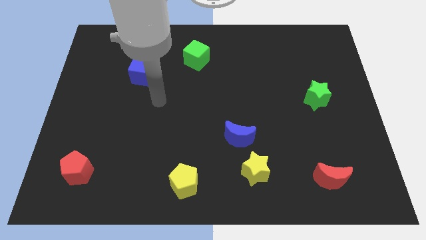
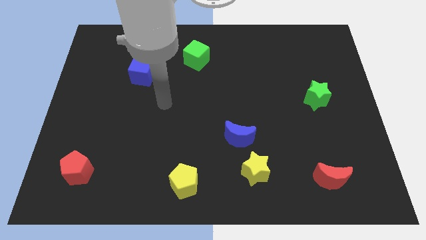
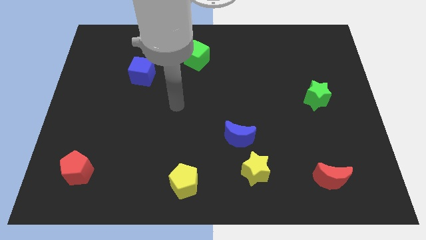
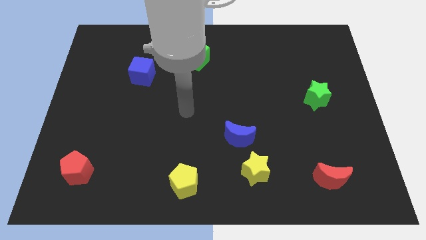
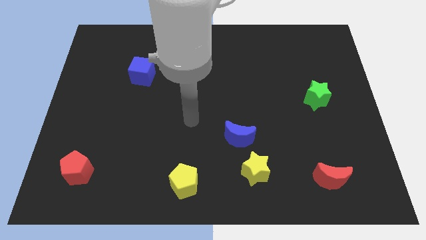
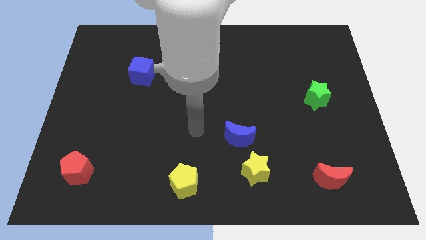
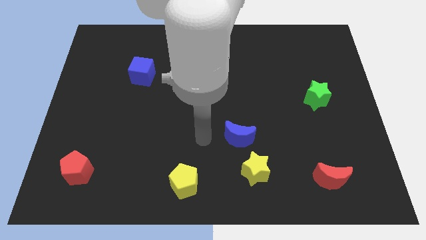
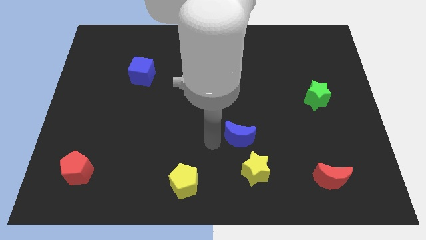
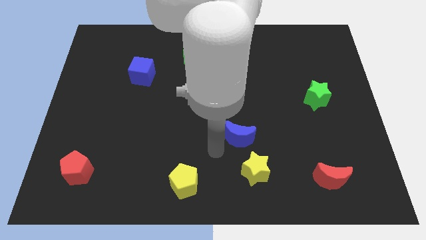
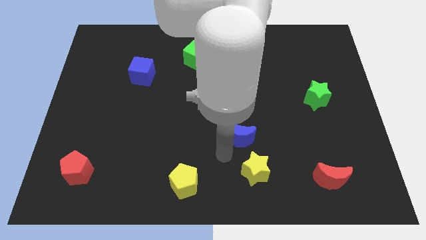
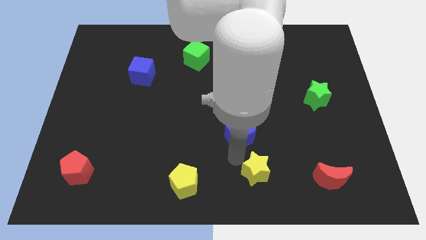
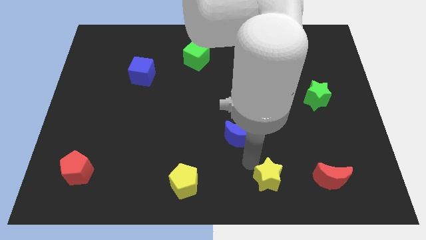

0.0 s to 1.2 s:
pull the blue moon apart from the yellow star

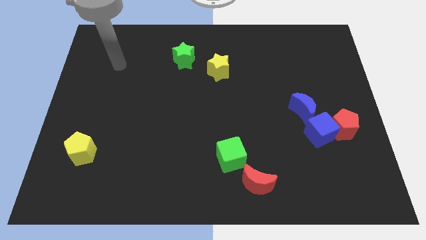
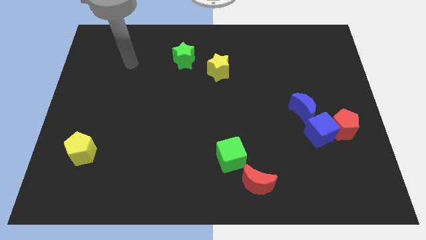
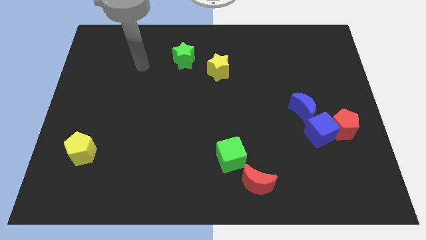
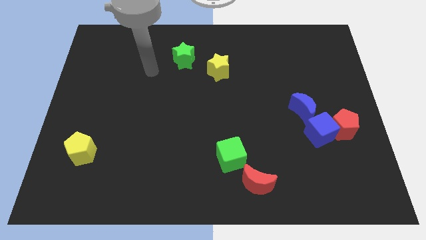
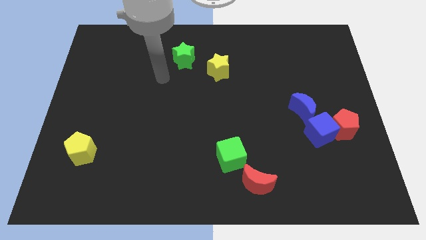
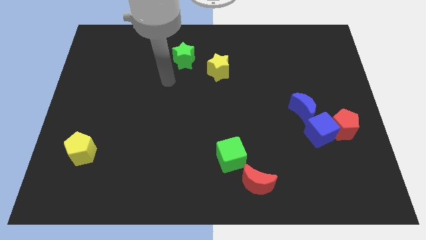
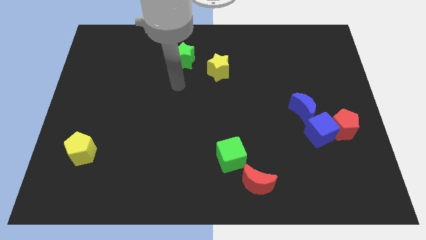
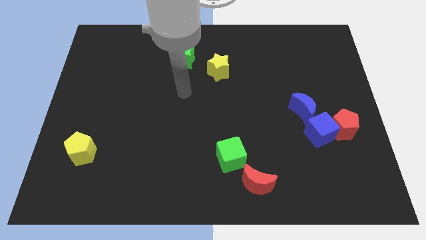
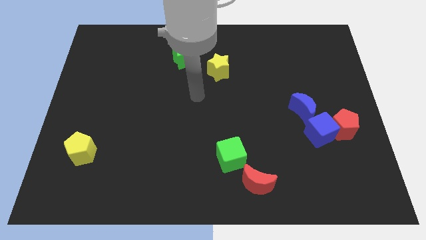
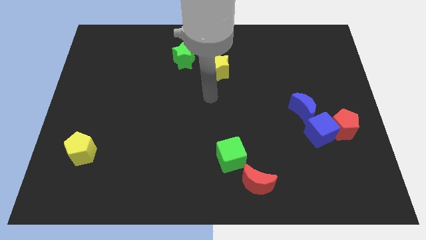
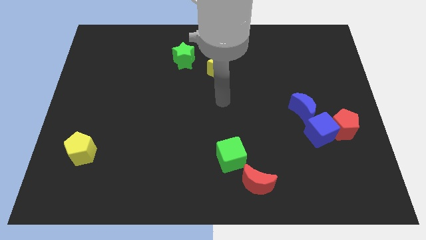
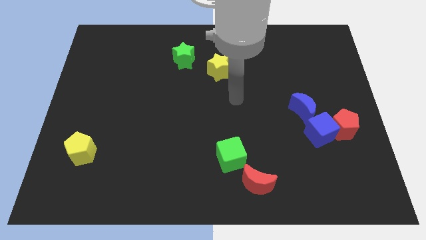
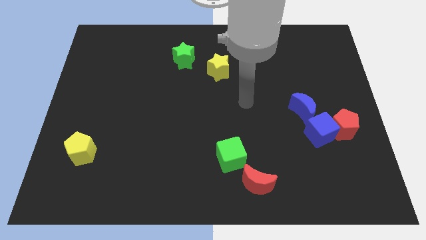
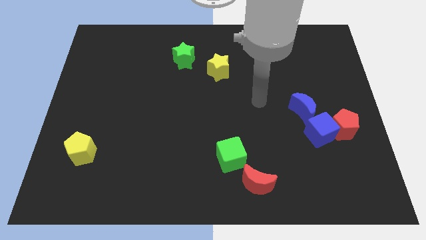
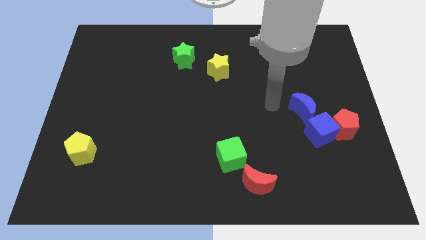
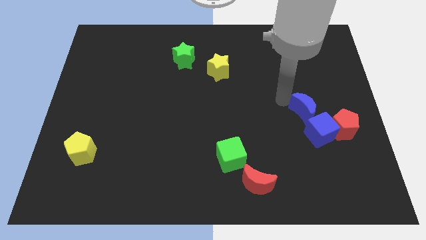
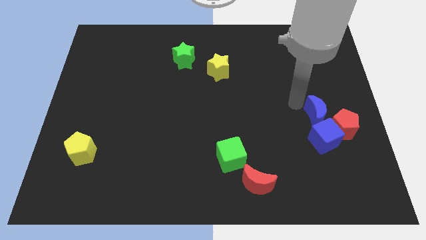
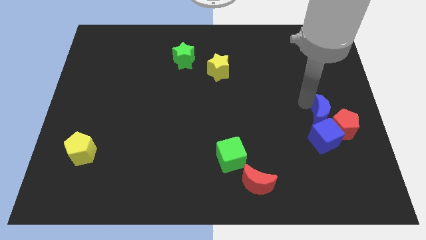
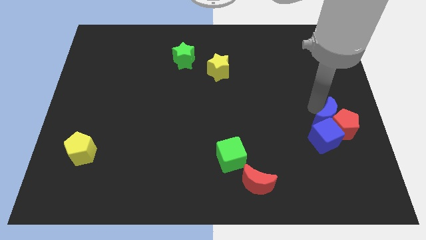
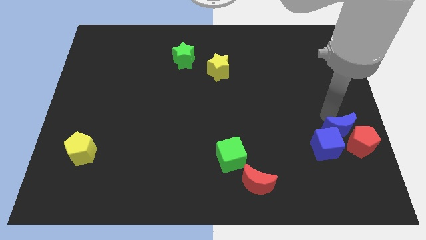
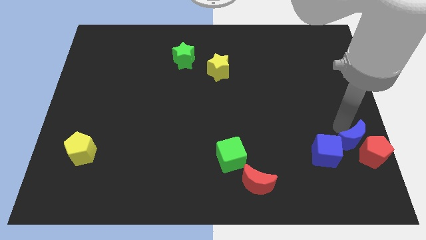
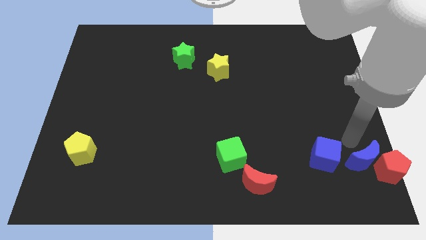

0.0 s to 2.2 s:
separate the blue cube from the red pentagon and blue moon

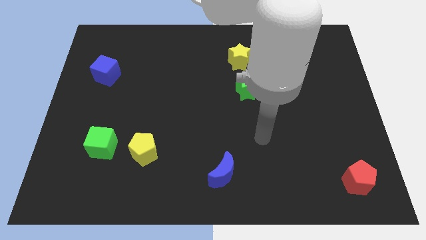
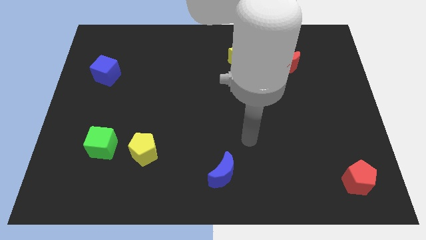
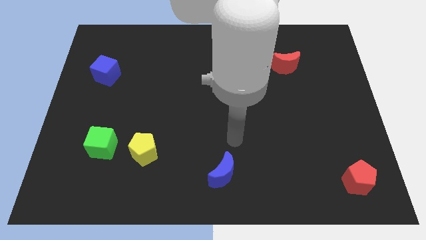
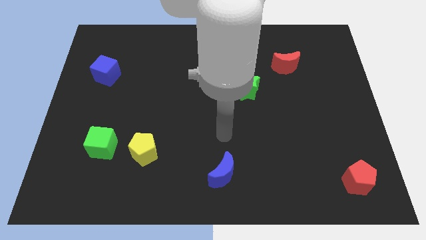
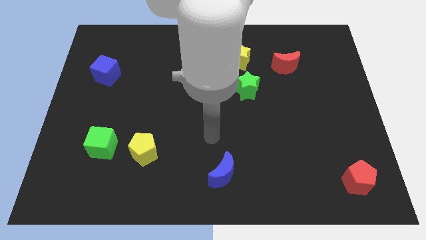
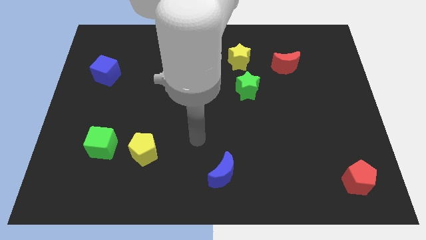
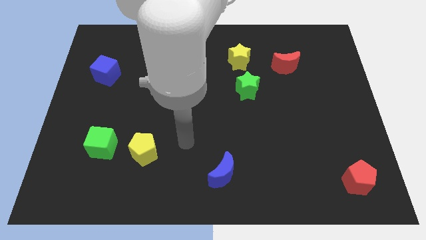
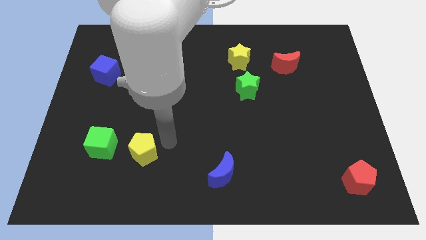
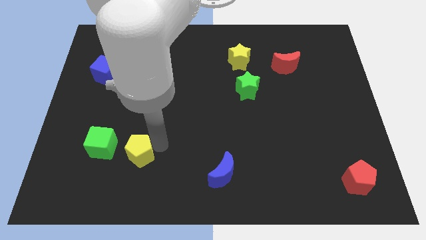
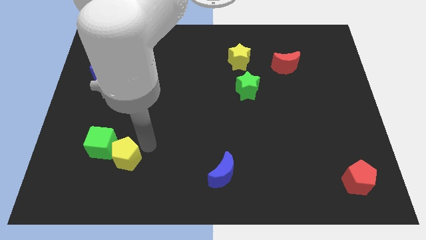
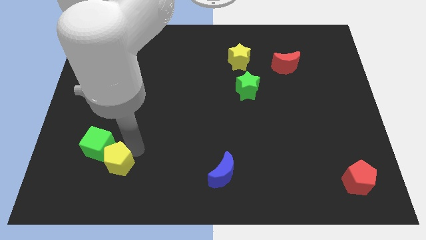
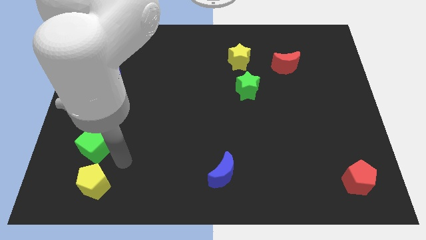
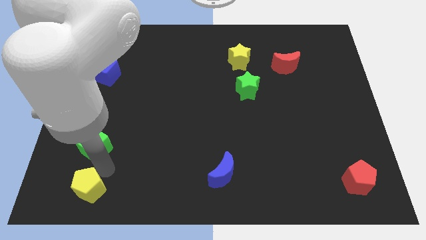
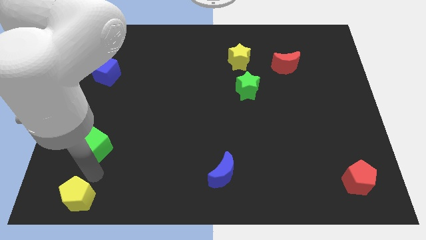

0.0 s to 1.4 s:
separate the green cube from the yellow pentagon

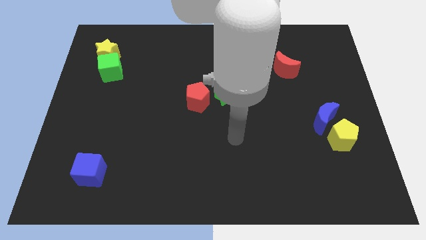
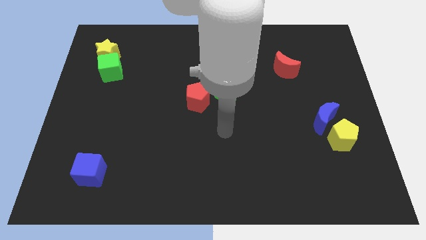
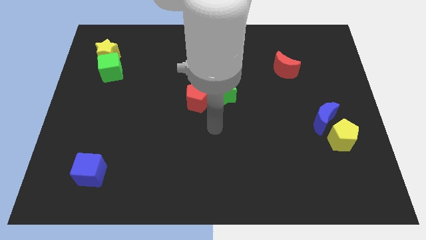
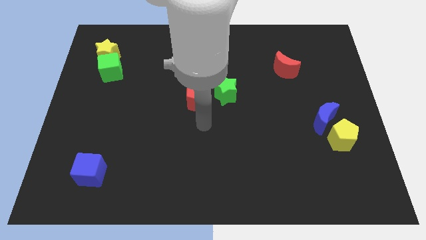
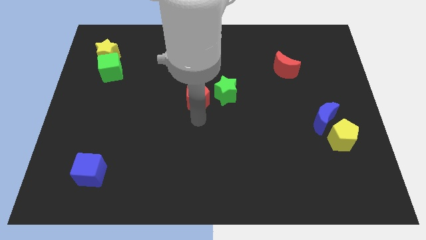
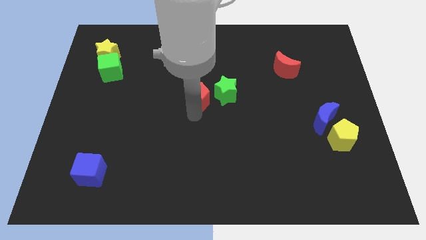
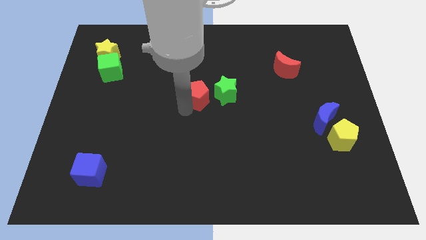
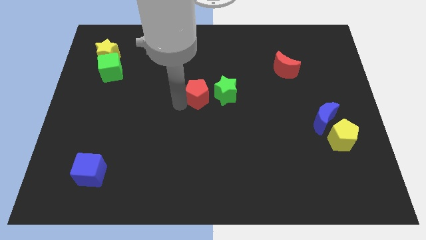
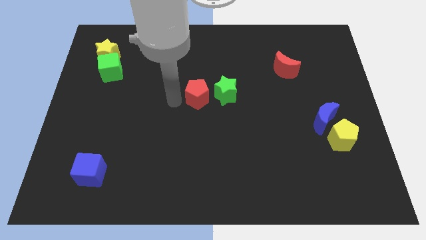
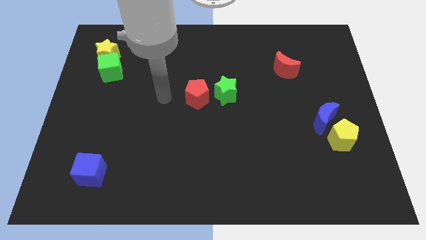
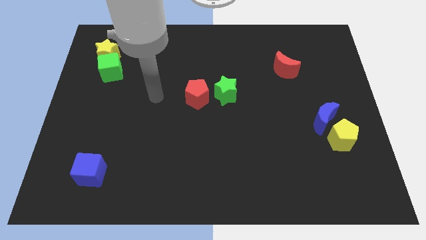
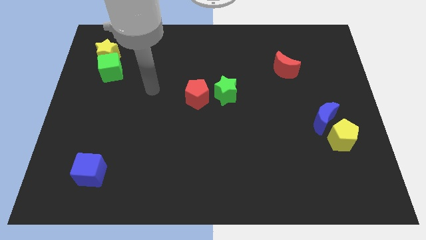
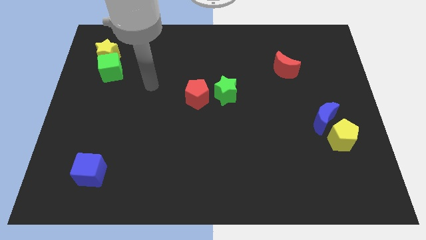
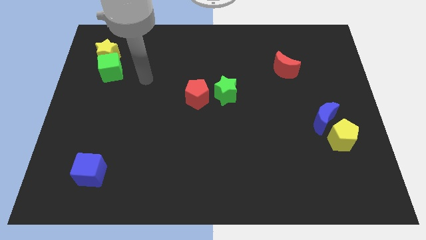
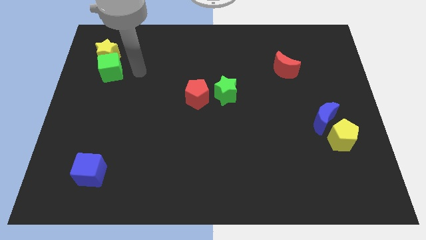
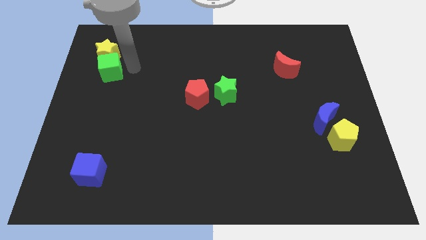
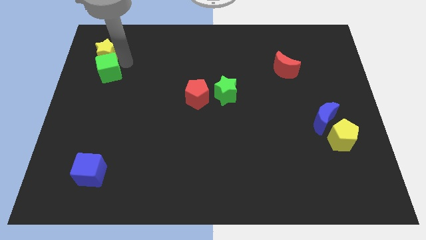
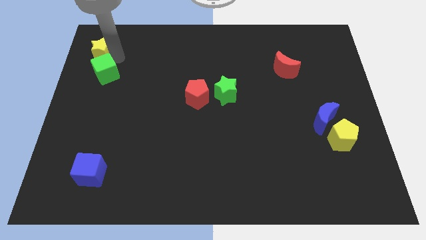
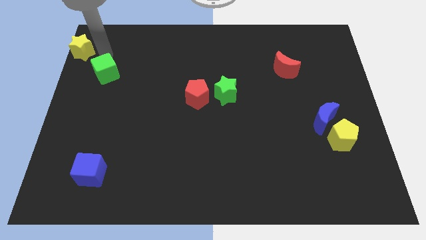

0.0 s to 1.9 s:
separate the green cube from the yellow star

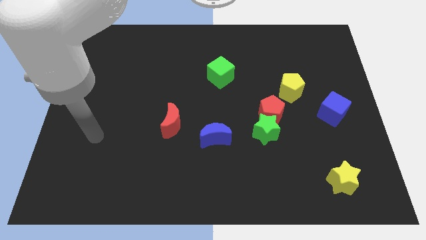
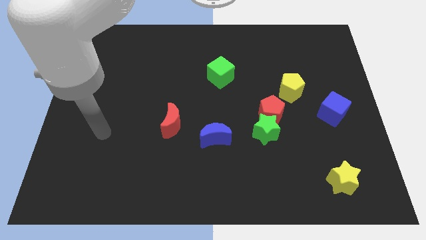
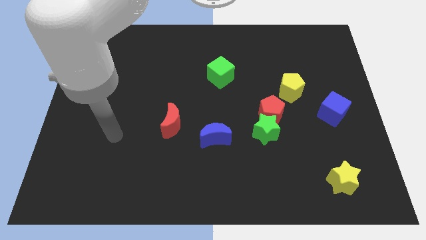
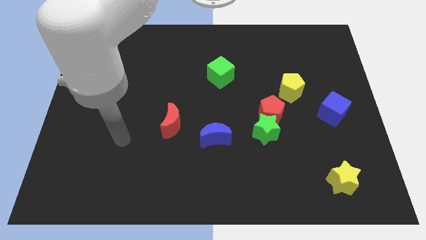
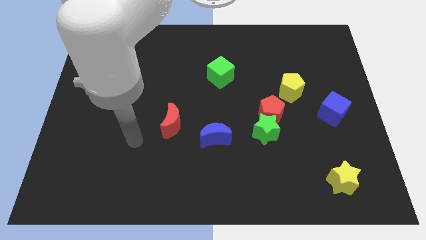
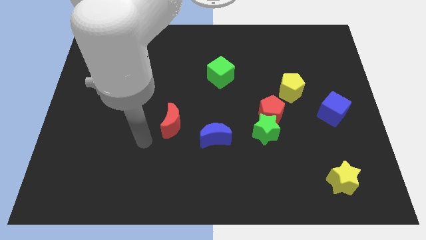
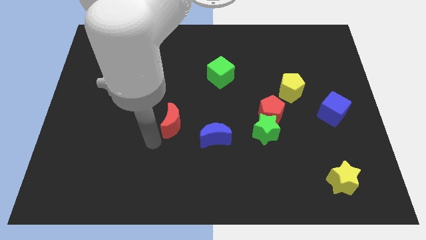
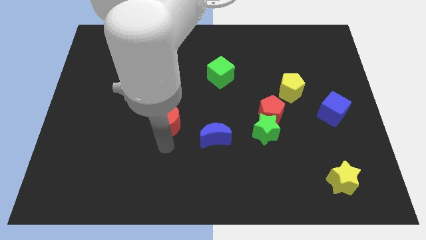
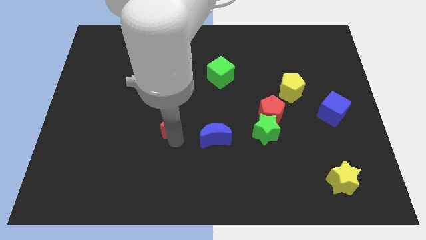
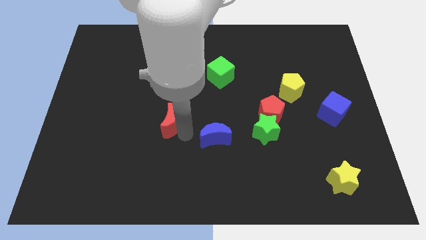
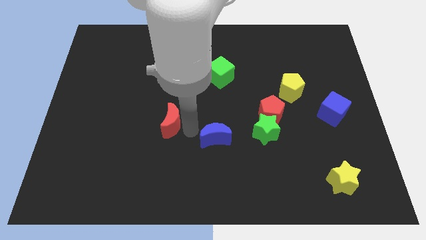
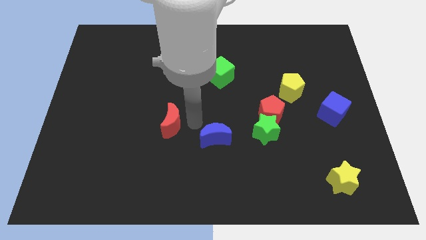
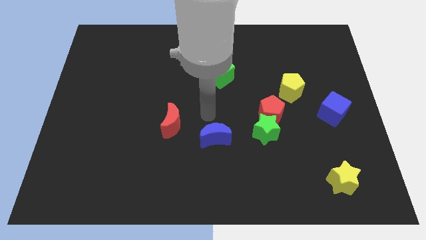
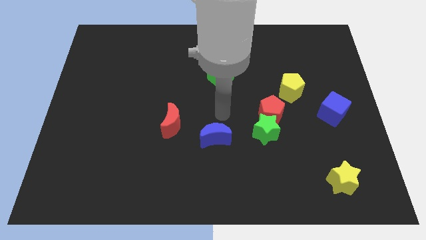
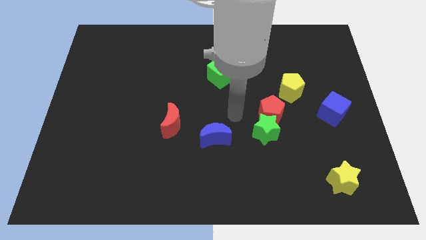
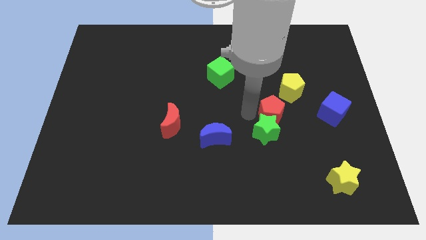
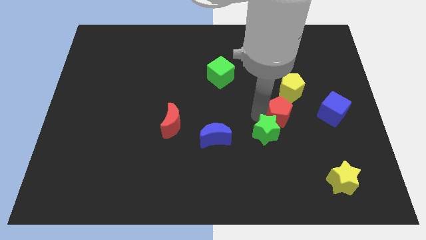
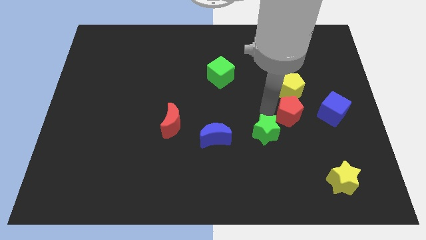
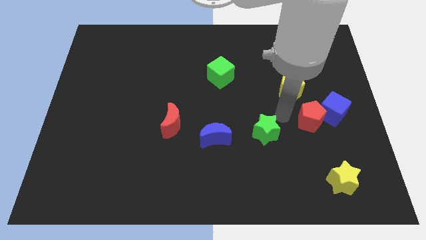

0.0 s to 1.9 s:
pull the green star apart from the red pentagon

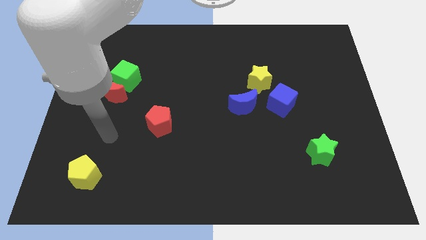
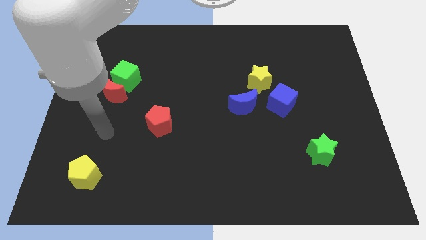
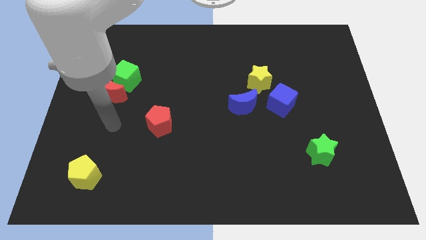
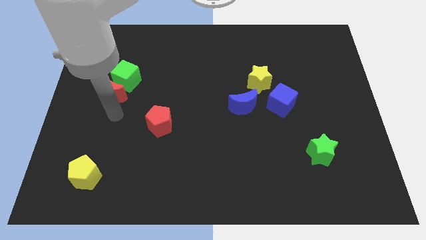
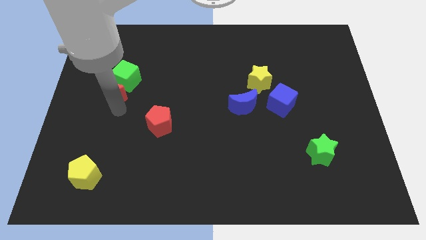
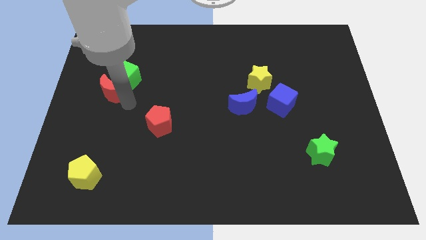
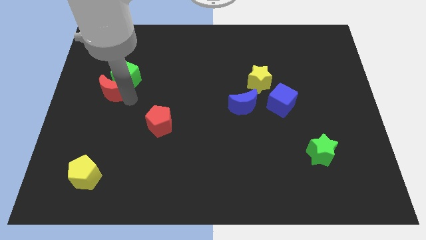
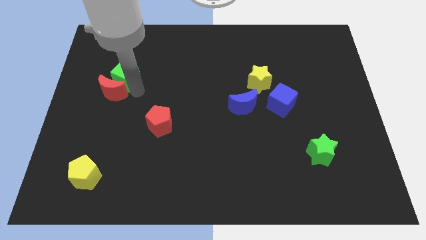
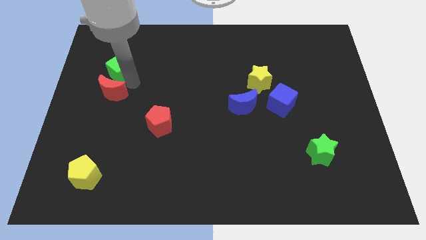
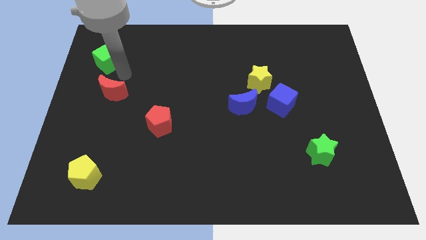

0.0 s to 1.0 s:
move the red moon away from the green cube
